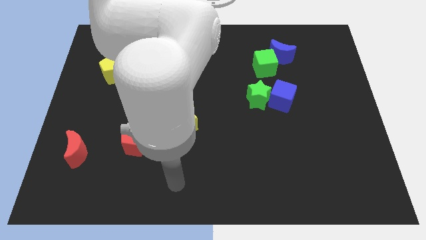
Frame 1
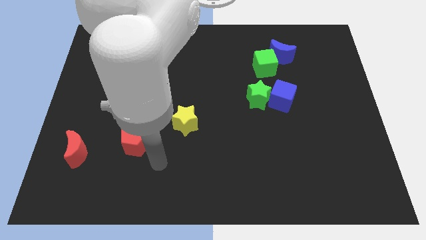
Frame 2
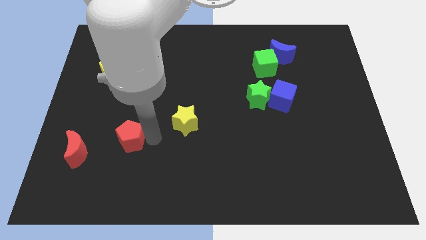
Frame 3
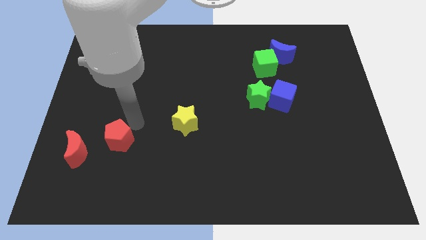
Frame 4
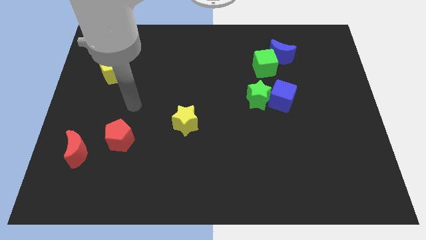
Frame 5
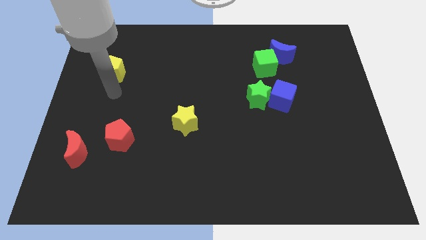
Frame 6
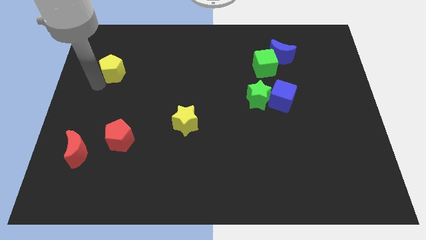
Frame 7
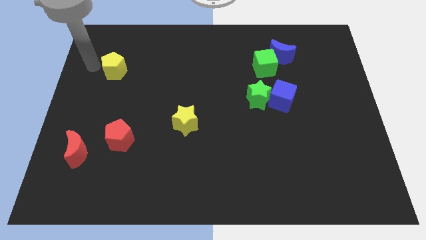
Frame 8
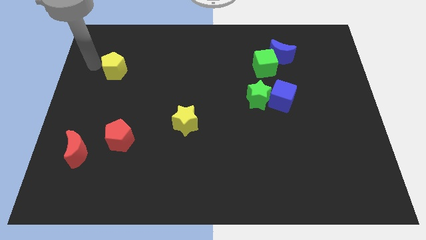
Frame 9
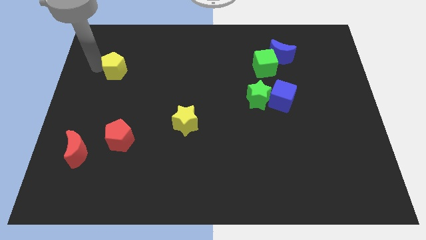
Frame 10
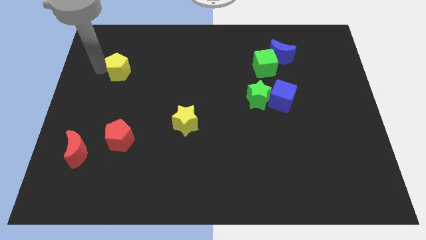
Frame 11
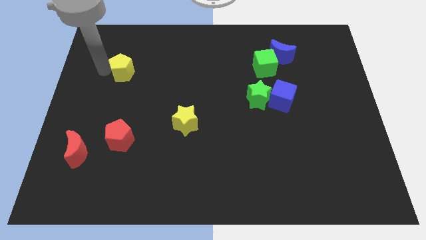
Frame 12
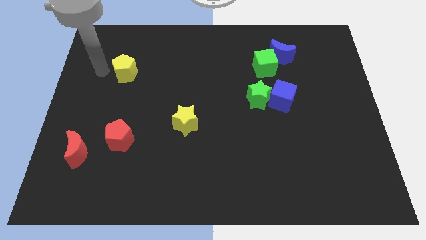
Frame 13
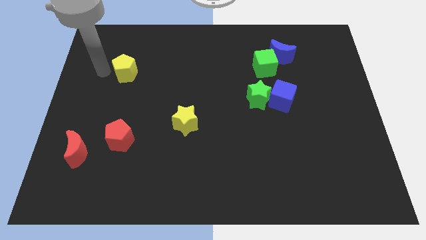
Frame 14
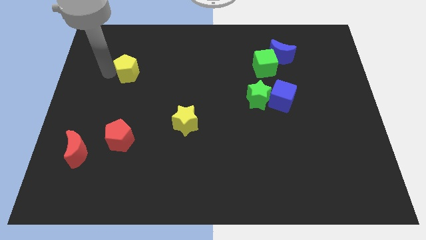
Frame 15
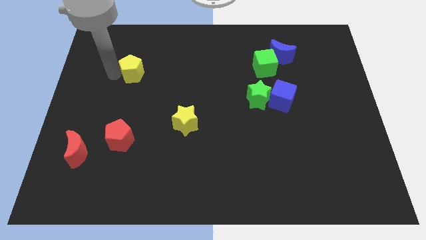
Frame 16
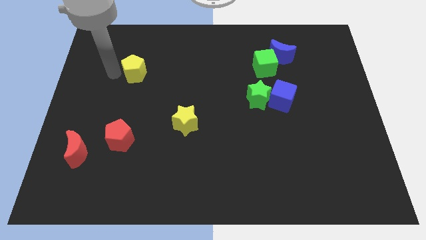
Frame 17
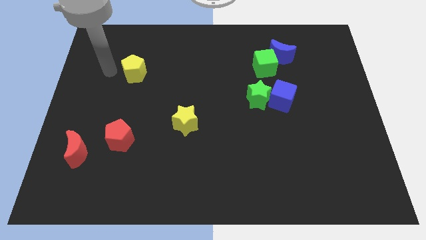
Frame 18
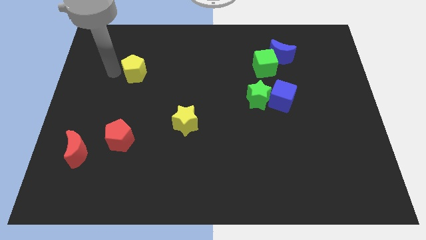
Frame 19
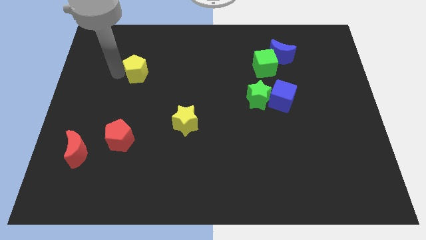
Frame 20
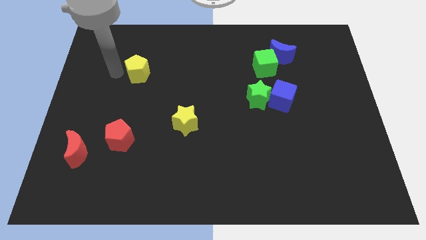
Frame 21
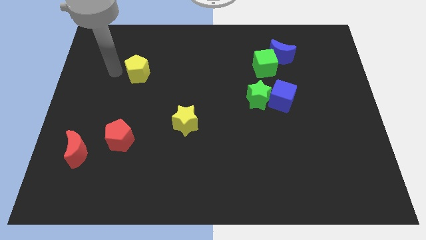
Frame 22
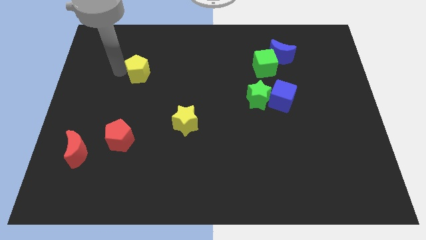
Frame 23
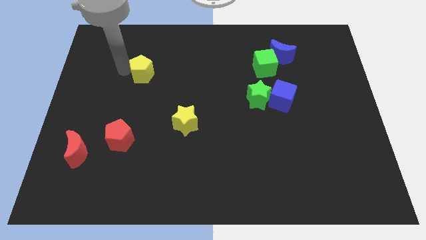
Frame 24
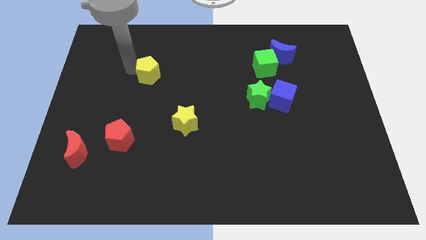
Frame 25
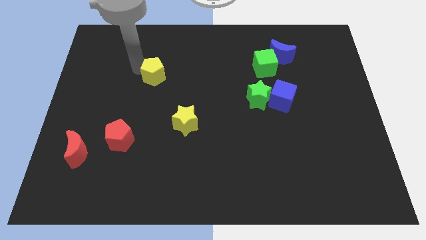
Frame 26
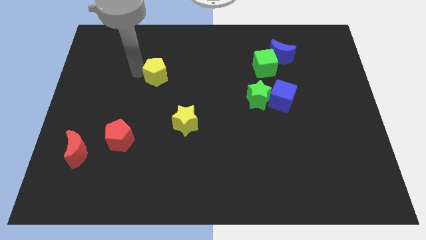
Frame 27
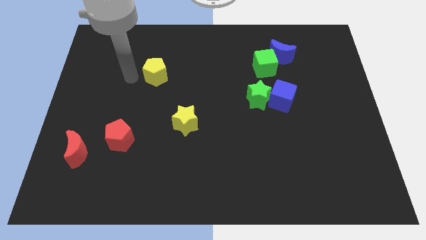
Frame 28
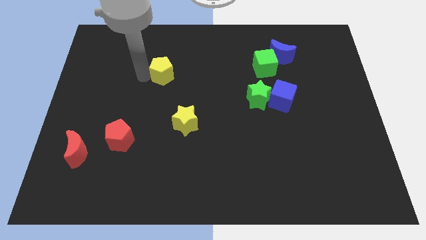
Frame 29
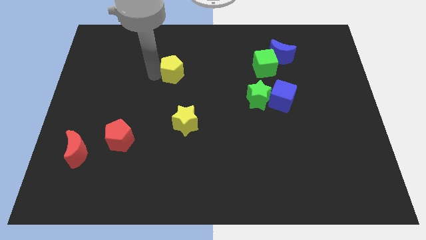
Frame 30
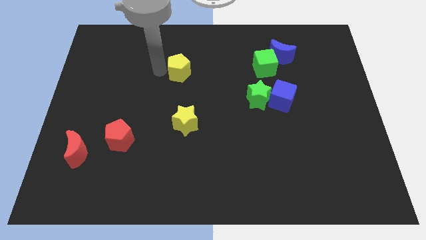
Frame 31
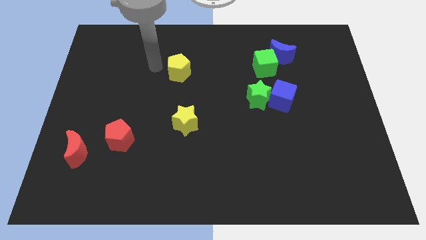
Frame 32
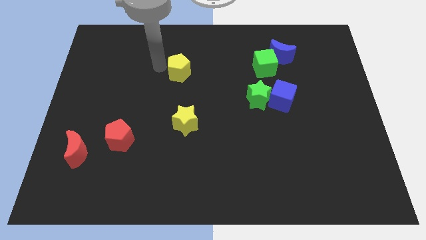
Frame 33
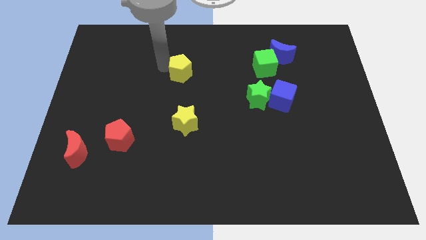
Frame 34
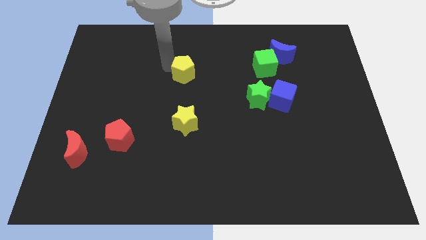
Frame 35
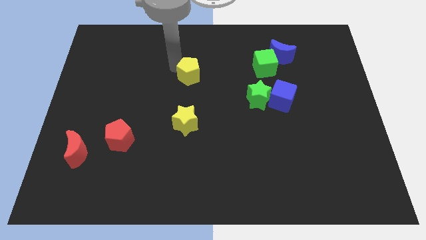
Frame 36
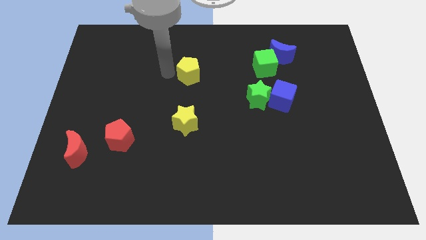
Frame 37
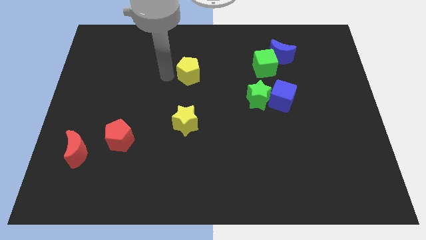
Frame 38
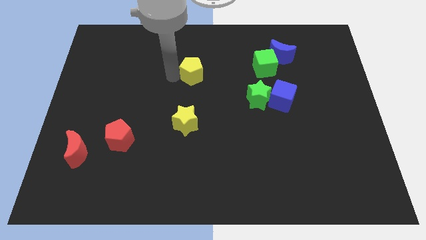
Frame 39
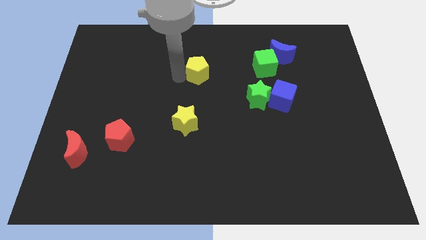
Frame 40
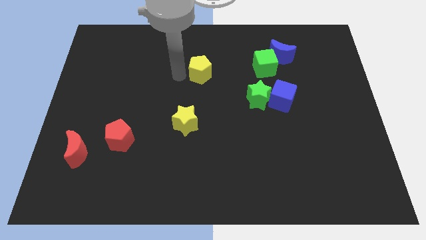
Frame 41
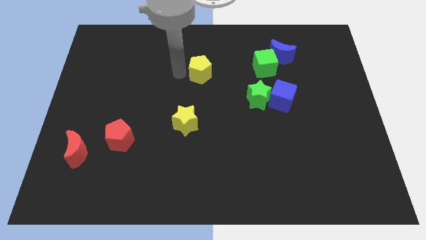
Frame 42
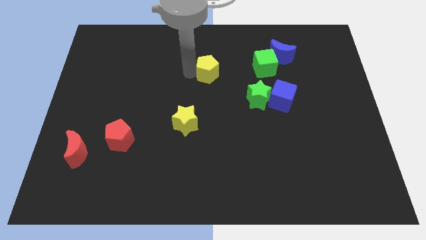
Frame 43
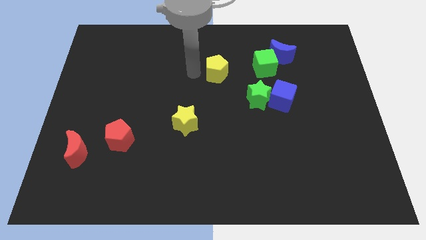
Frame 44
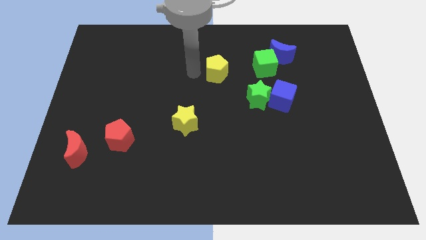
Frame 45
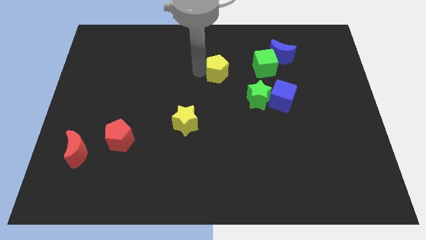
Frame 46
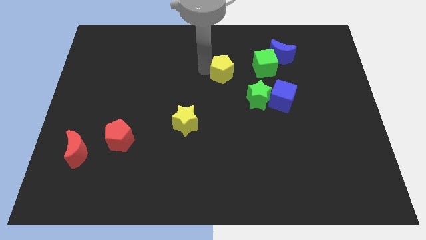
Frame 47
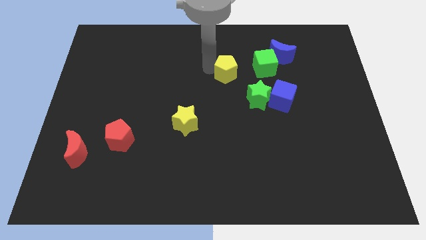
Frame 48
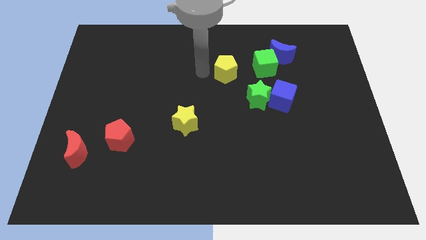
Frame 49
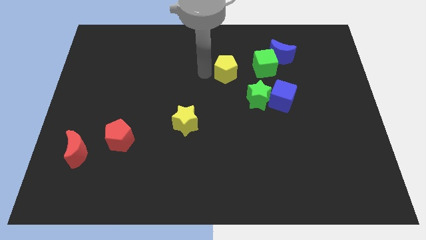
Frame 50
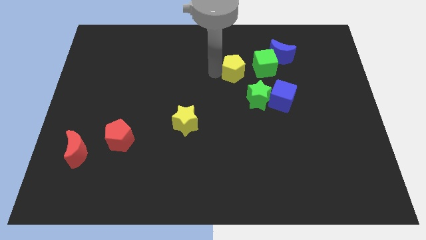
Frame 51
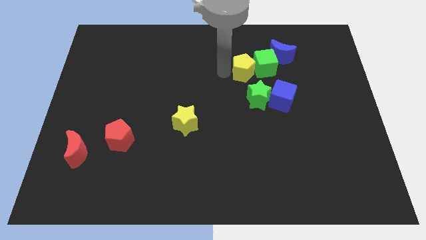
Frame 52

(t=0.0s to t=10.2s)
slide the yellow pentagon to the green cube

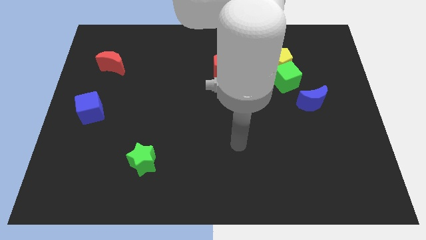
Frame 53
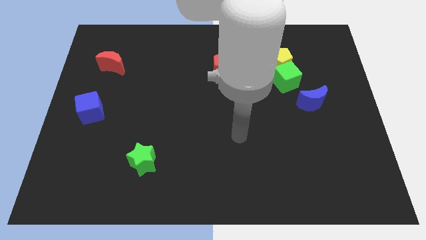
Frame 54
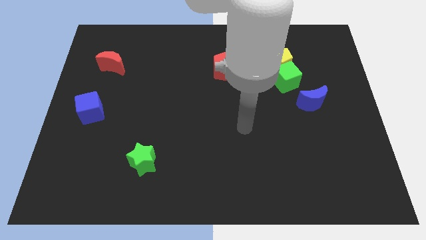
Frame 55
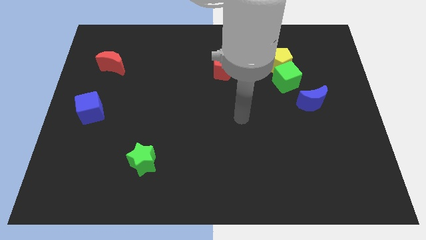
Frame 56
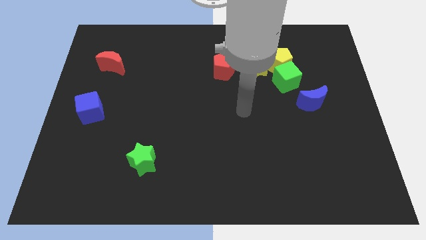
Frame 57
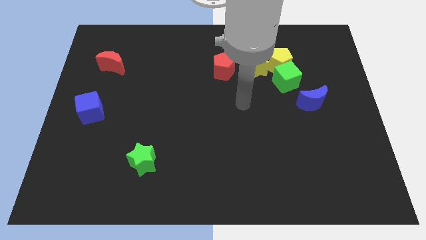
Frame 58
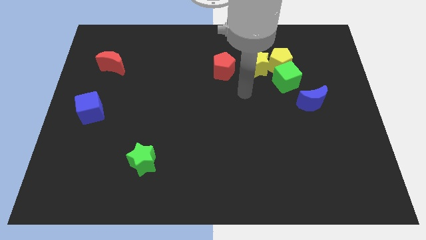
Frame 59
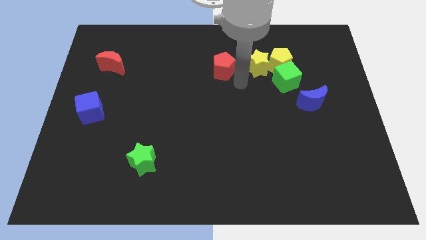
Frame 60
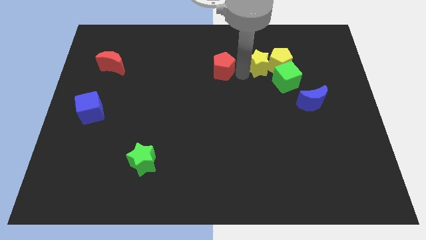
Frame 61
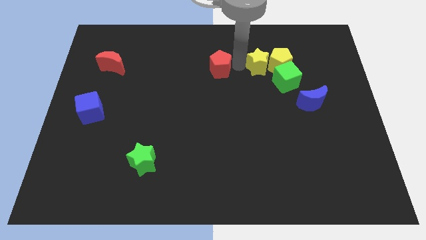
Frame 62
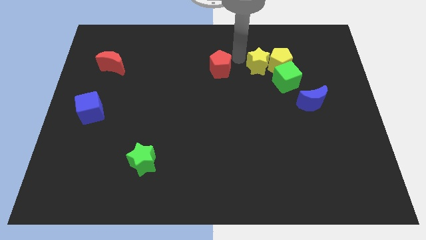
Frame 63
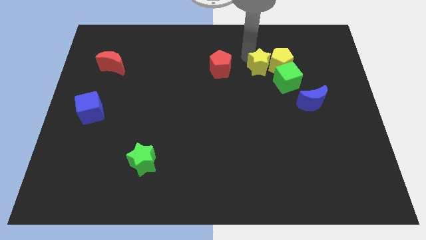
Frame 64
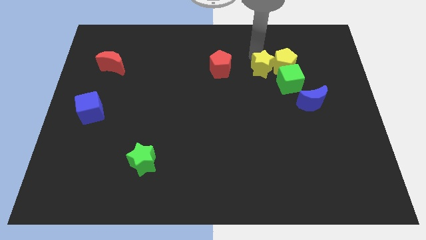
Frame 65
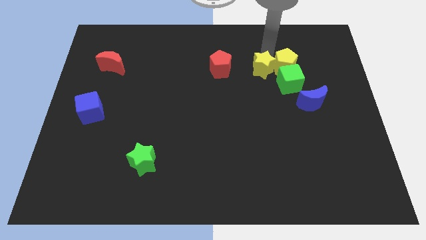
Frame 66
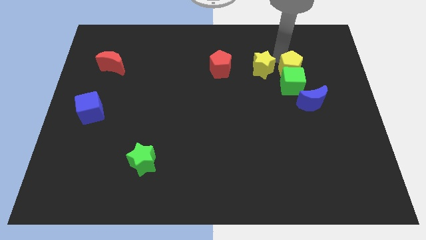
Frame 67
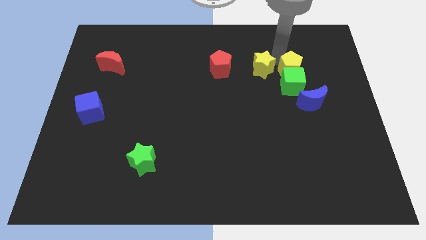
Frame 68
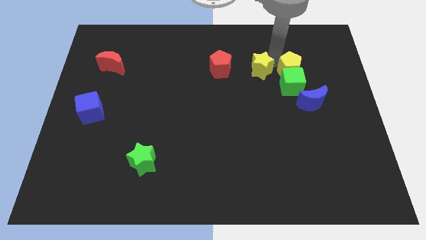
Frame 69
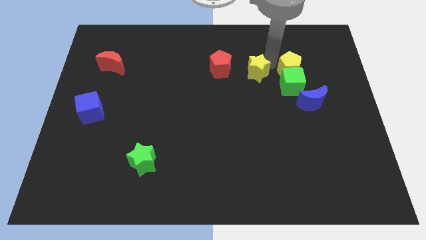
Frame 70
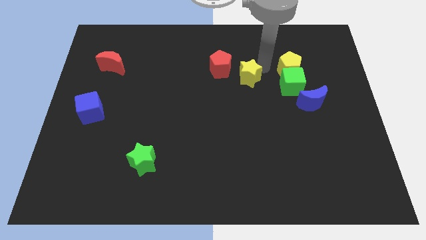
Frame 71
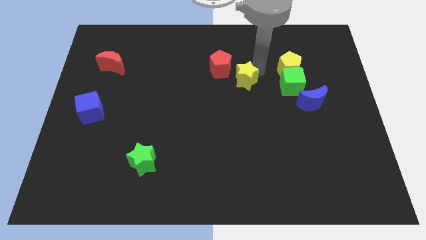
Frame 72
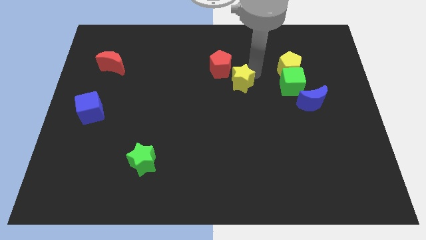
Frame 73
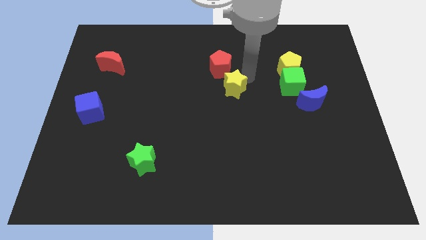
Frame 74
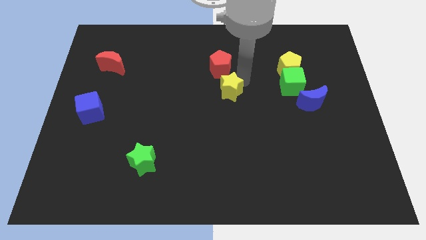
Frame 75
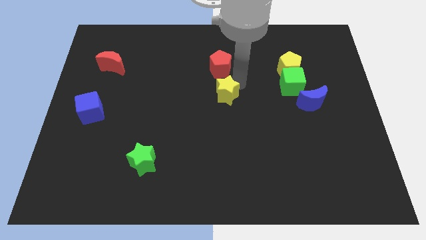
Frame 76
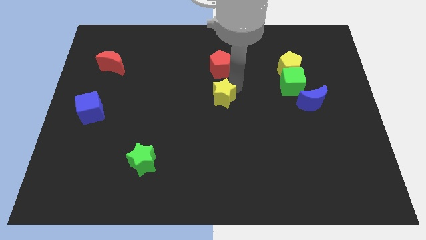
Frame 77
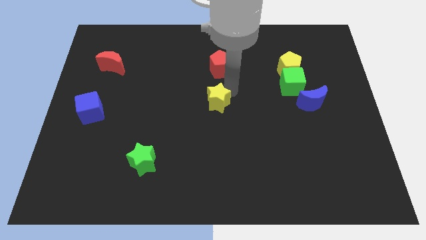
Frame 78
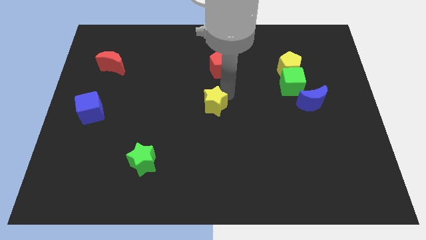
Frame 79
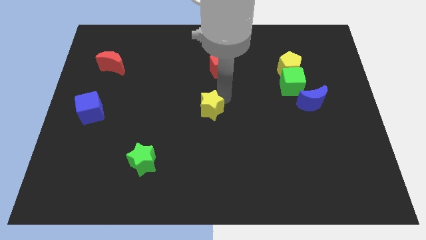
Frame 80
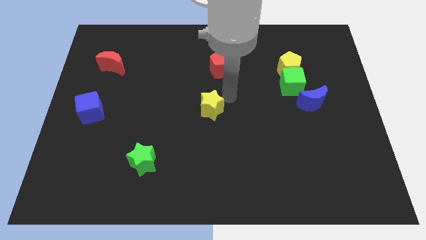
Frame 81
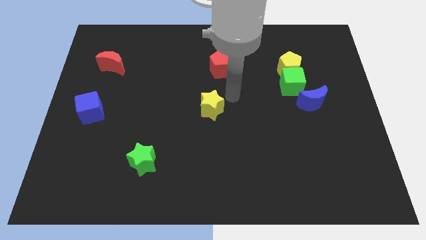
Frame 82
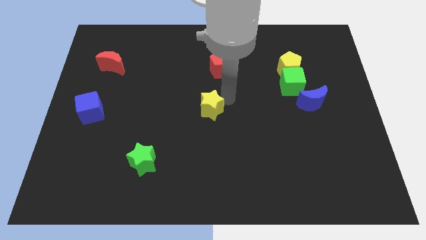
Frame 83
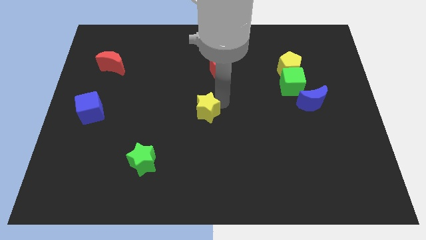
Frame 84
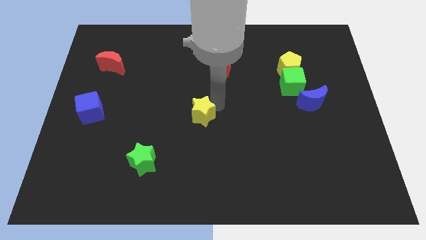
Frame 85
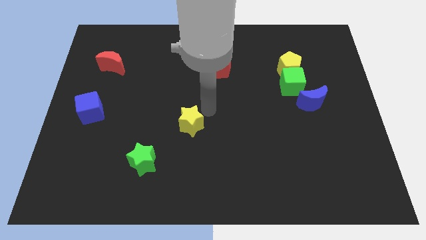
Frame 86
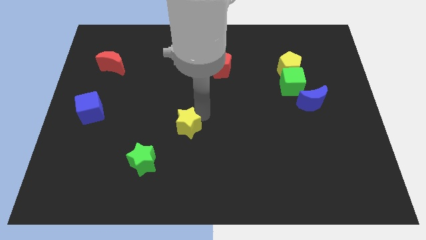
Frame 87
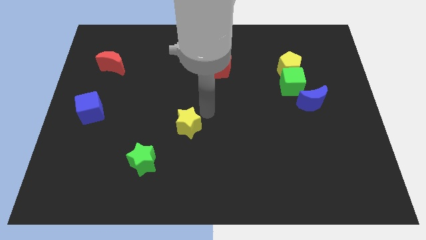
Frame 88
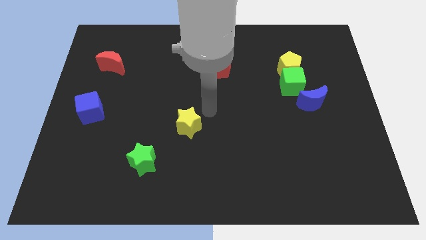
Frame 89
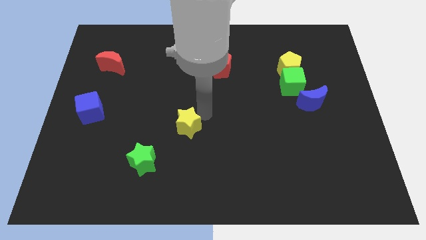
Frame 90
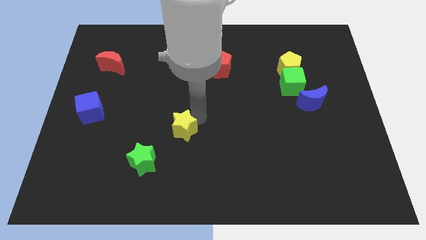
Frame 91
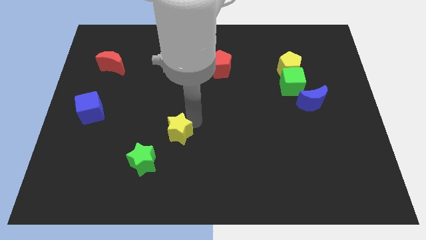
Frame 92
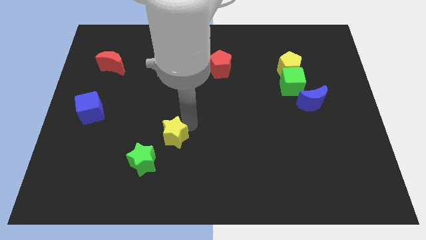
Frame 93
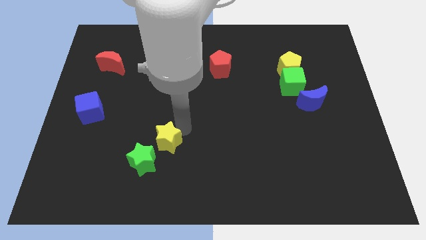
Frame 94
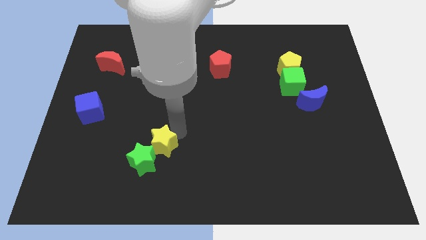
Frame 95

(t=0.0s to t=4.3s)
push the yellow star next to the green star
